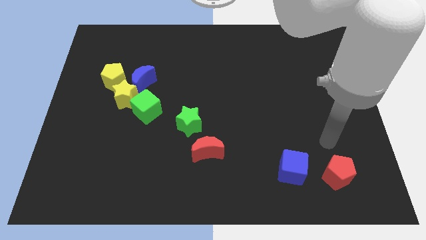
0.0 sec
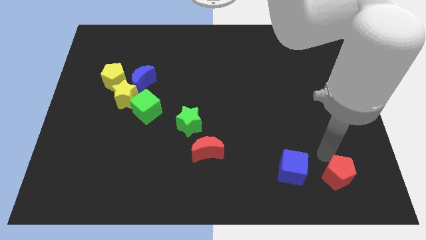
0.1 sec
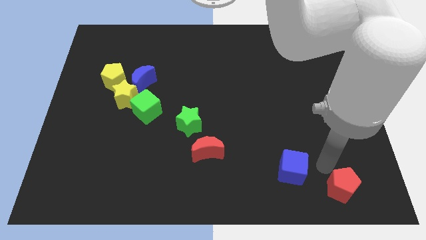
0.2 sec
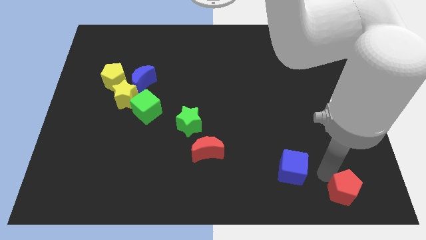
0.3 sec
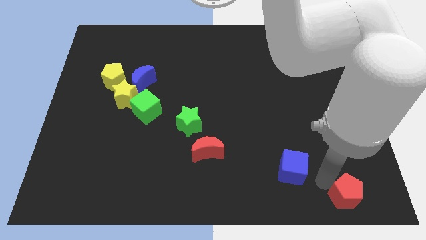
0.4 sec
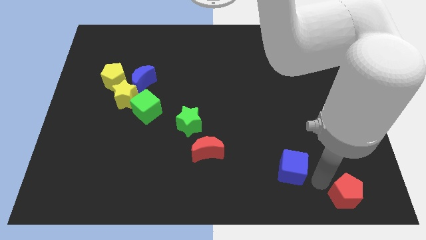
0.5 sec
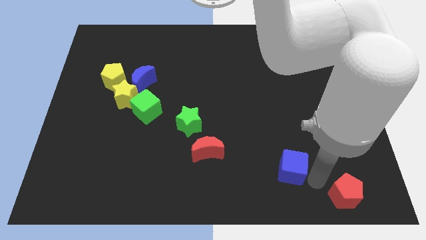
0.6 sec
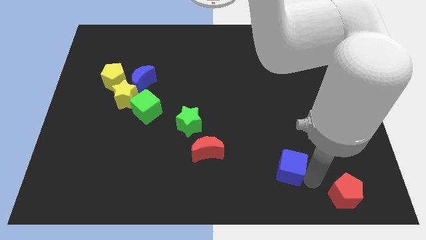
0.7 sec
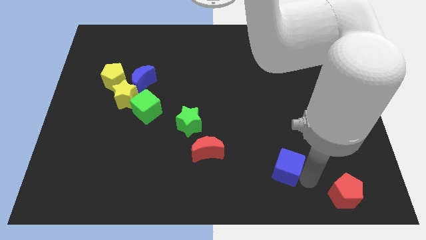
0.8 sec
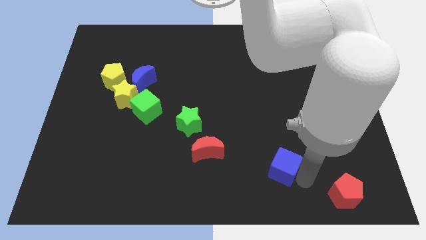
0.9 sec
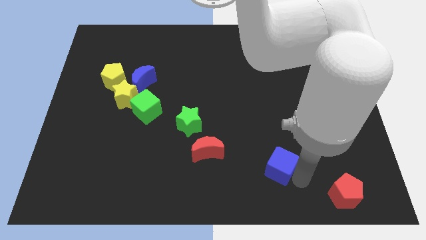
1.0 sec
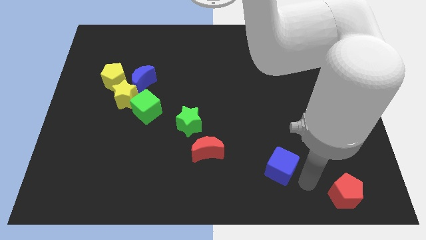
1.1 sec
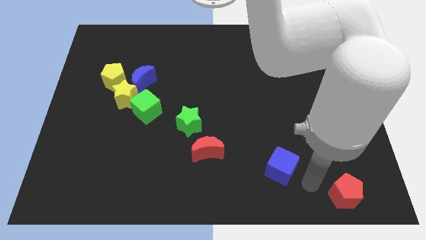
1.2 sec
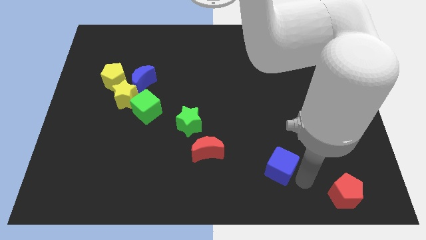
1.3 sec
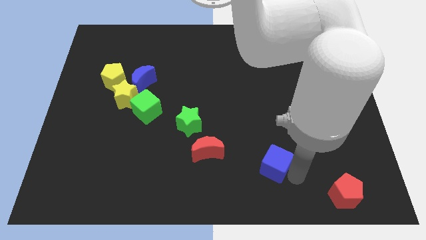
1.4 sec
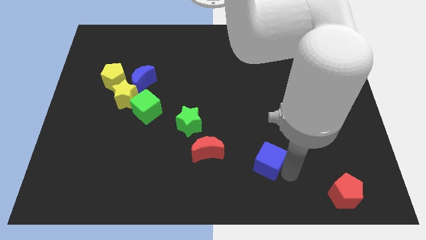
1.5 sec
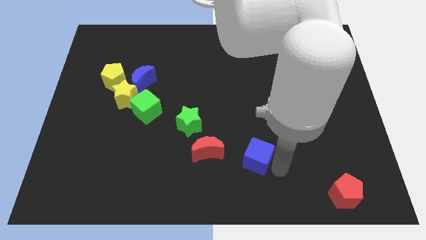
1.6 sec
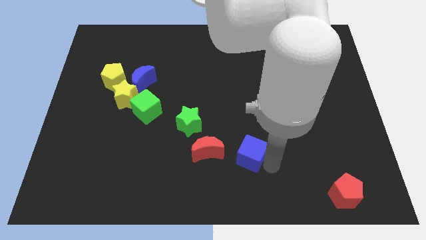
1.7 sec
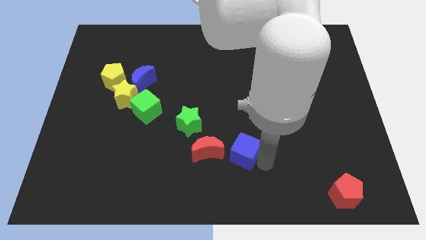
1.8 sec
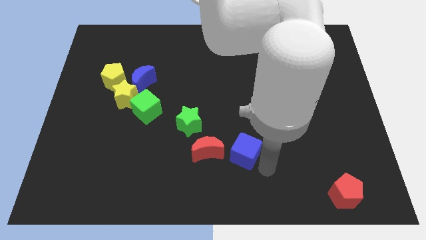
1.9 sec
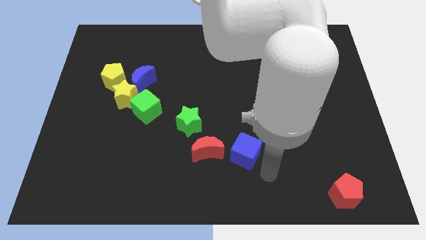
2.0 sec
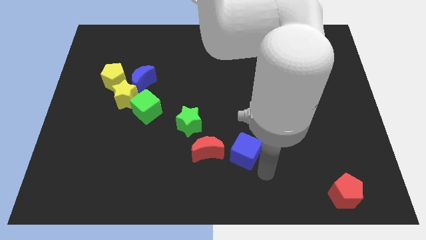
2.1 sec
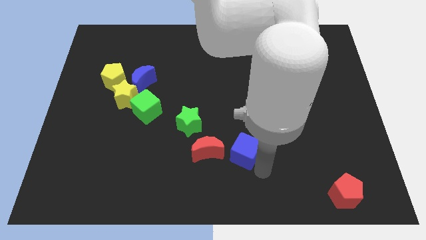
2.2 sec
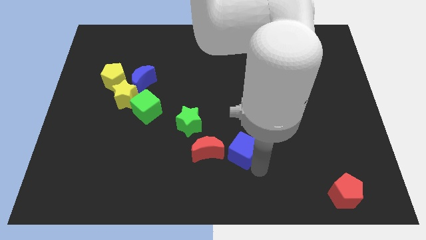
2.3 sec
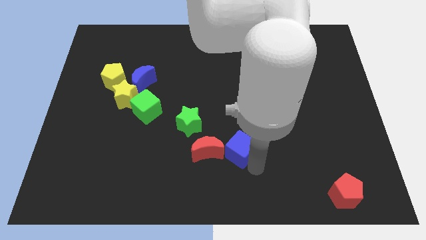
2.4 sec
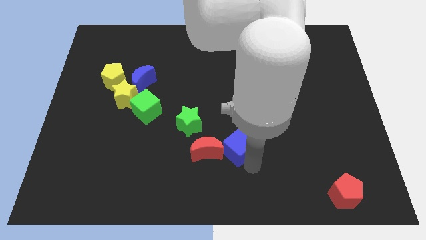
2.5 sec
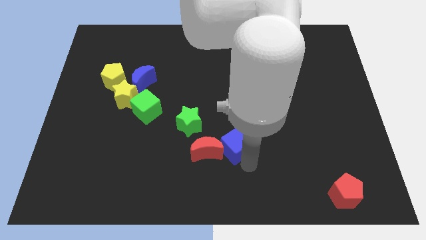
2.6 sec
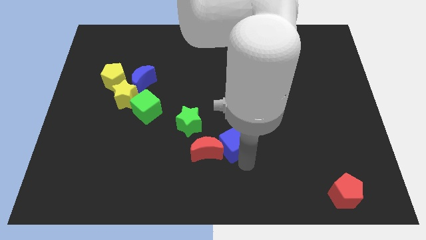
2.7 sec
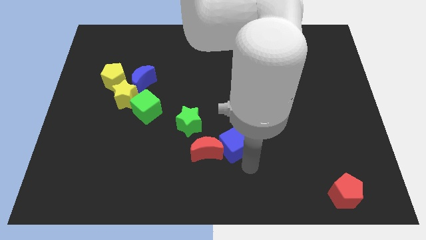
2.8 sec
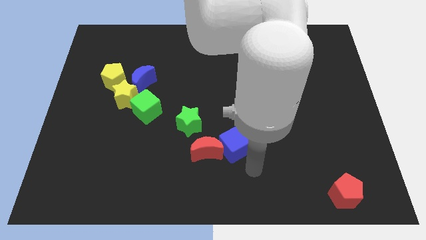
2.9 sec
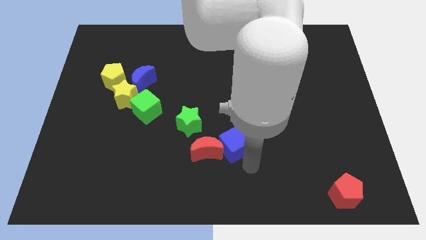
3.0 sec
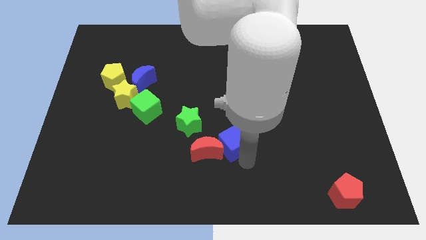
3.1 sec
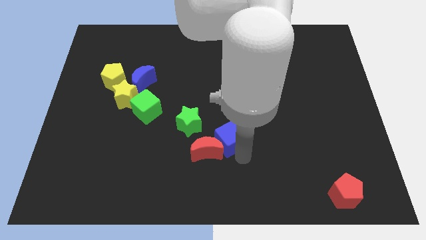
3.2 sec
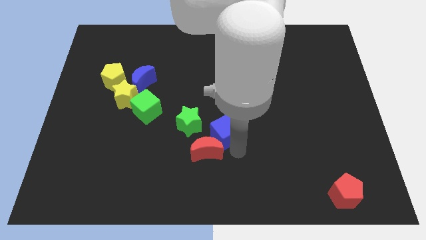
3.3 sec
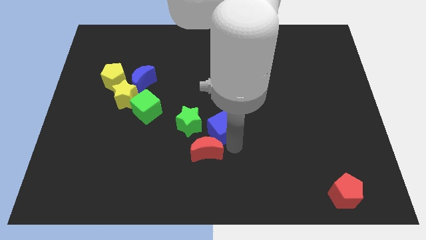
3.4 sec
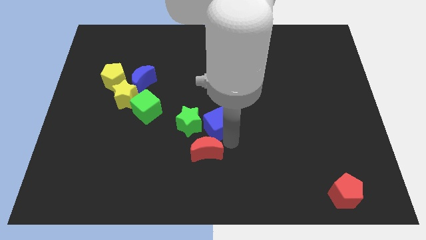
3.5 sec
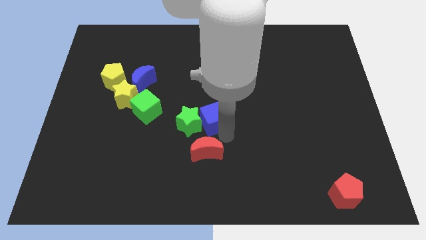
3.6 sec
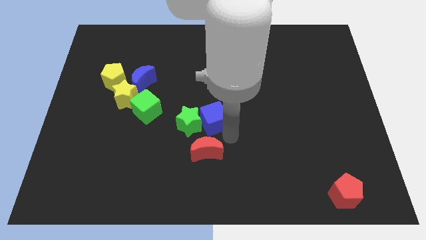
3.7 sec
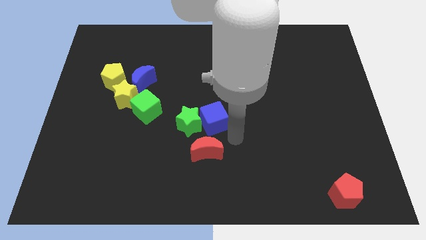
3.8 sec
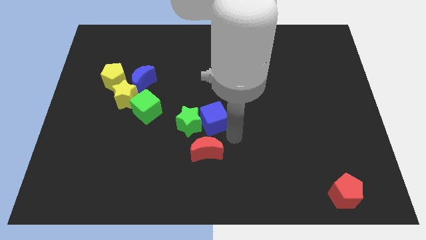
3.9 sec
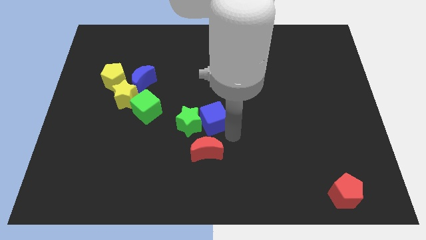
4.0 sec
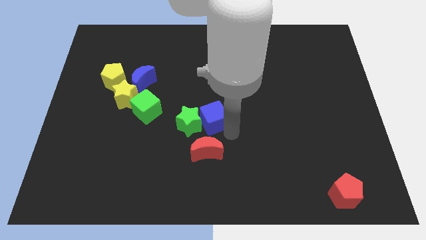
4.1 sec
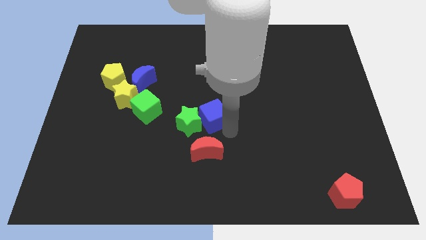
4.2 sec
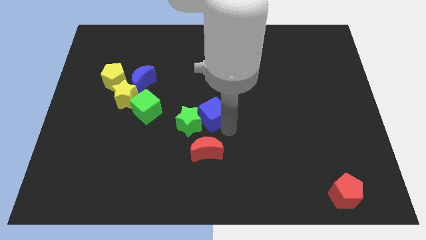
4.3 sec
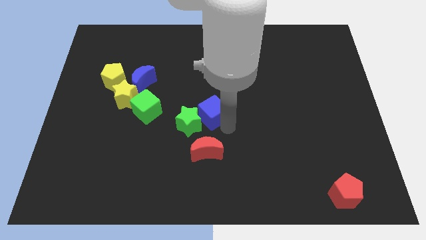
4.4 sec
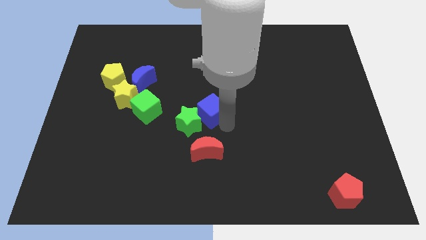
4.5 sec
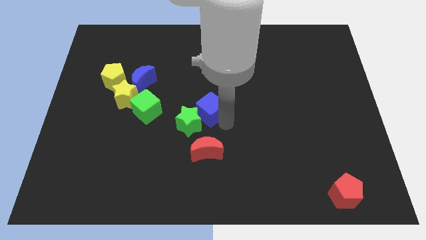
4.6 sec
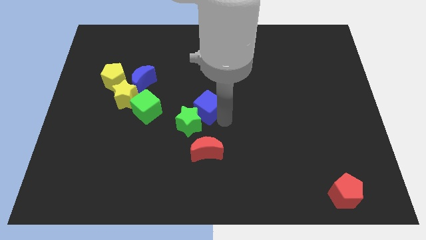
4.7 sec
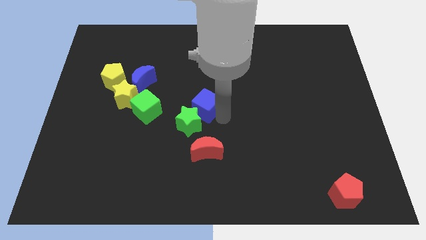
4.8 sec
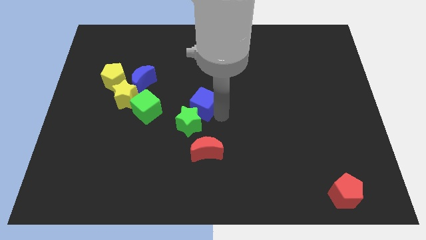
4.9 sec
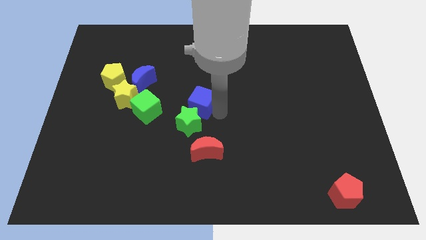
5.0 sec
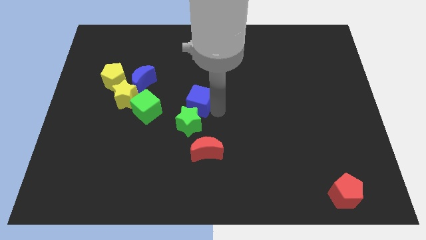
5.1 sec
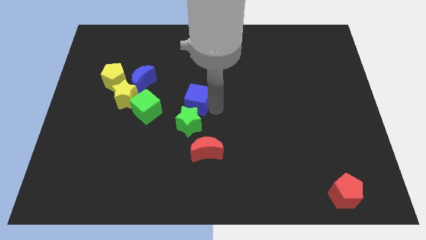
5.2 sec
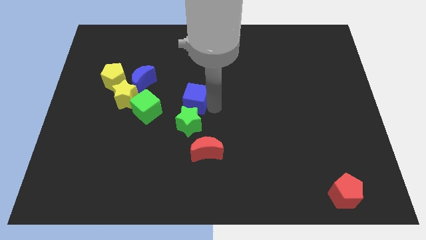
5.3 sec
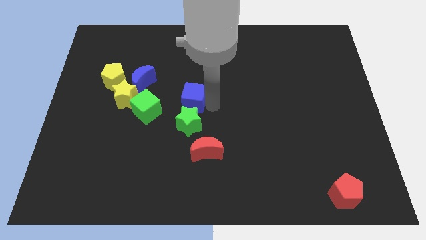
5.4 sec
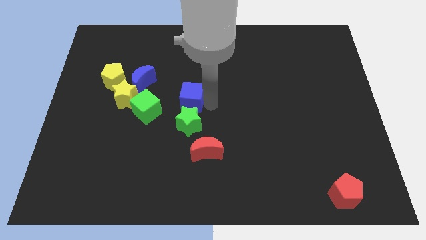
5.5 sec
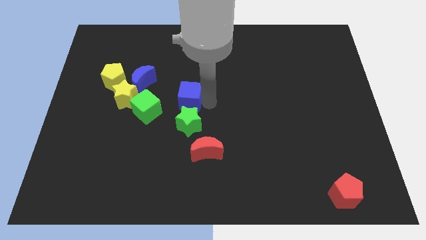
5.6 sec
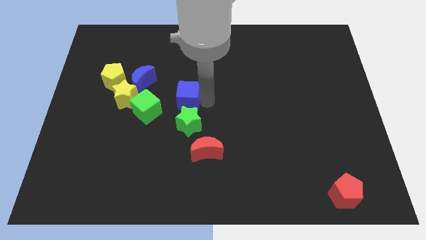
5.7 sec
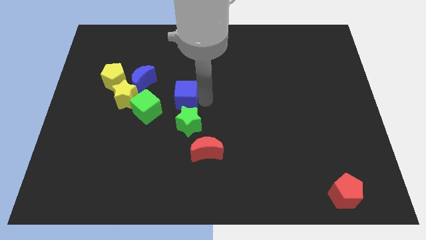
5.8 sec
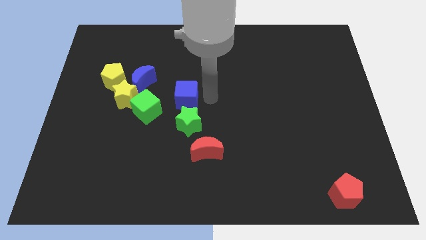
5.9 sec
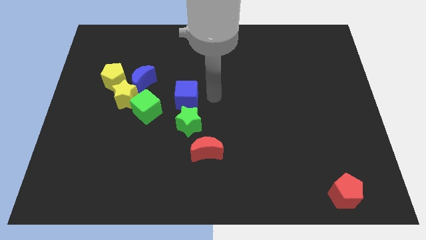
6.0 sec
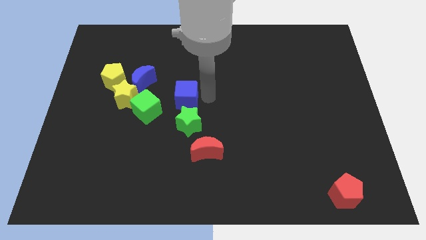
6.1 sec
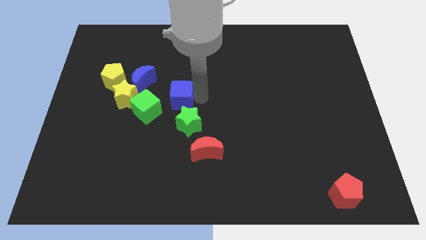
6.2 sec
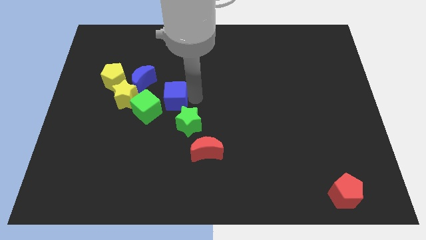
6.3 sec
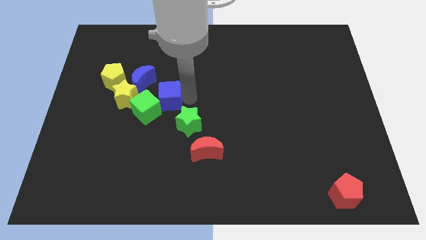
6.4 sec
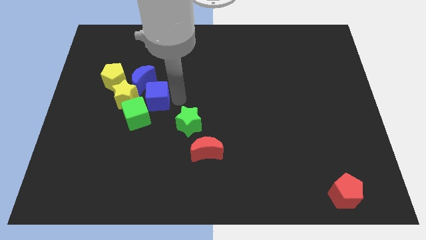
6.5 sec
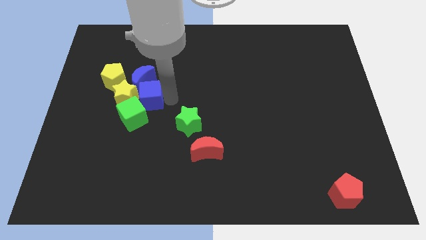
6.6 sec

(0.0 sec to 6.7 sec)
move the blue cube to the yellow star

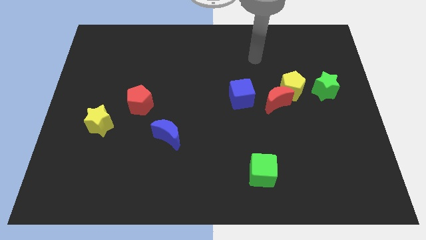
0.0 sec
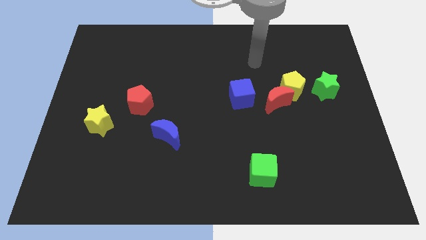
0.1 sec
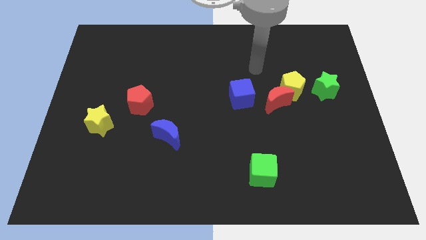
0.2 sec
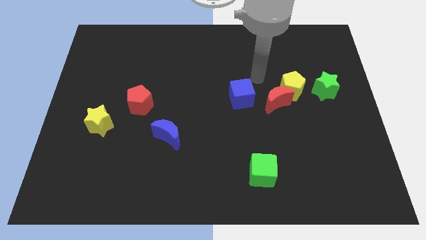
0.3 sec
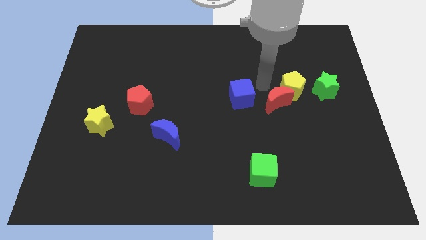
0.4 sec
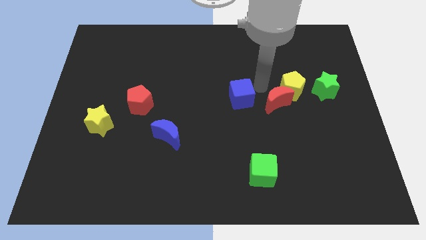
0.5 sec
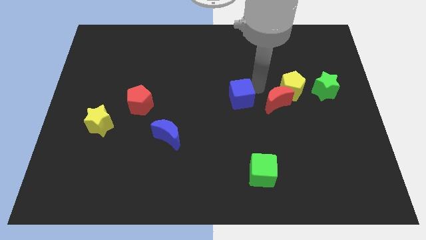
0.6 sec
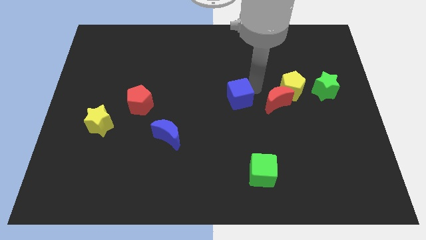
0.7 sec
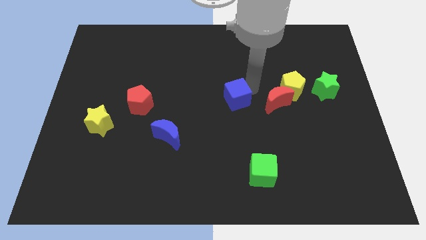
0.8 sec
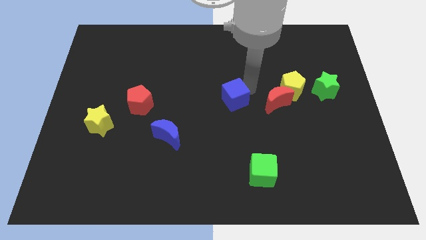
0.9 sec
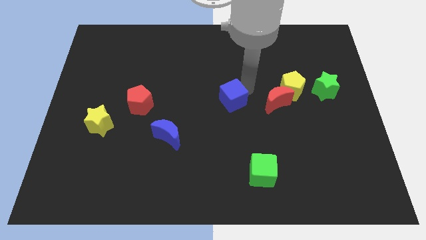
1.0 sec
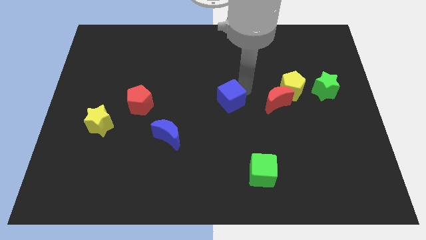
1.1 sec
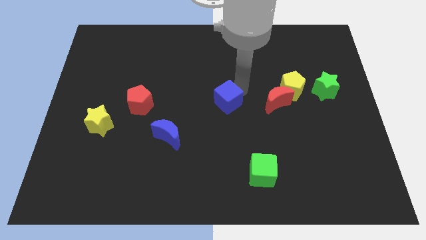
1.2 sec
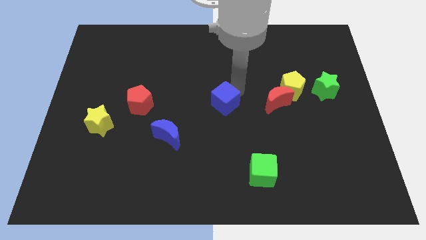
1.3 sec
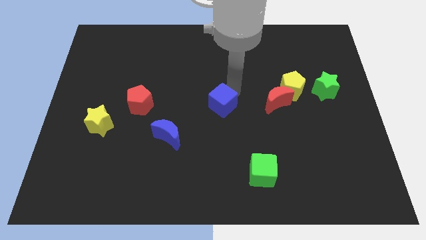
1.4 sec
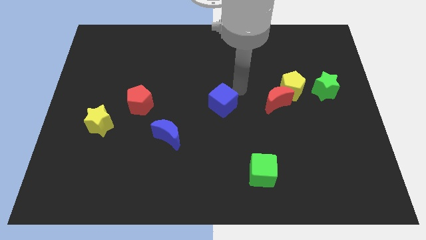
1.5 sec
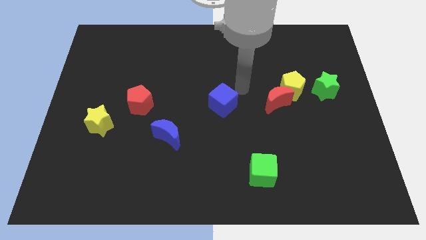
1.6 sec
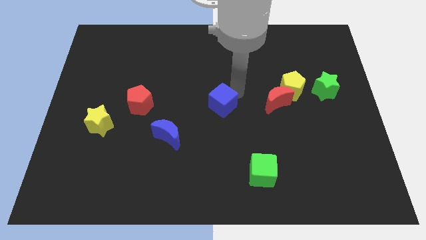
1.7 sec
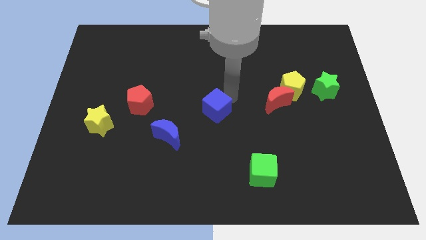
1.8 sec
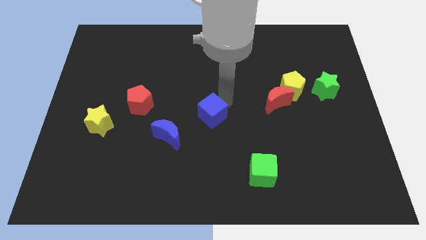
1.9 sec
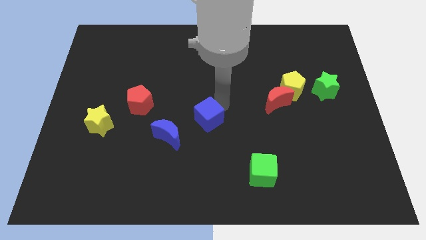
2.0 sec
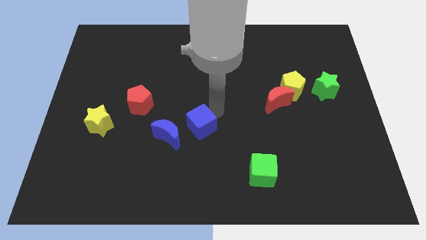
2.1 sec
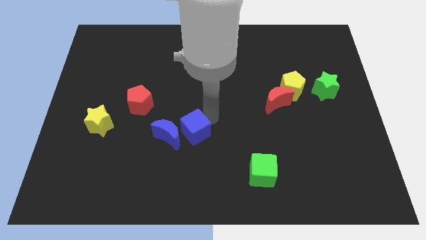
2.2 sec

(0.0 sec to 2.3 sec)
move the blue cube towards the blue moon
